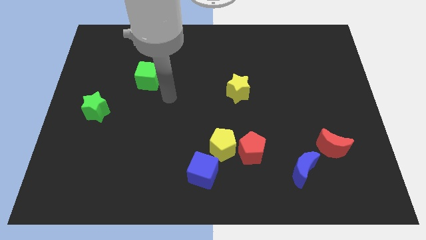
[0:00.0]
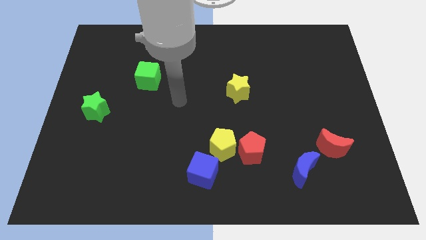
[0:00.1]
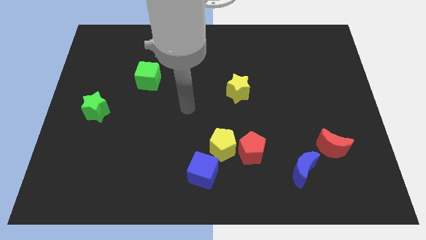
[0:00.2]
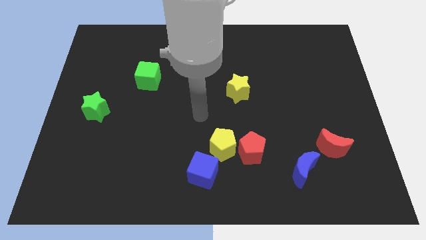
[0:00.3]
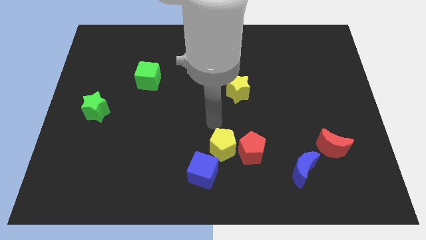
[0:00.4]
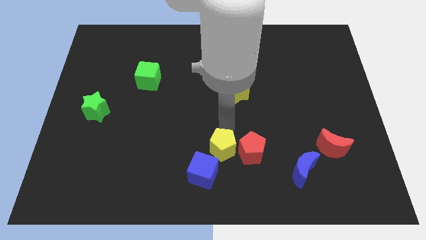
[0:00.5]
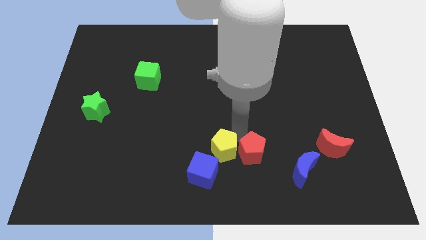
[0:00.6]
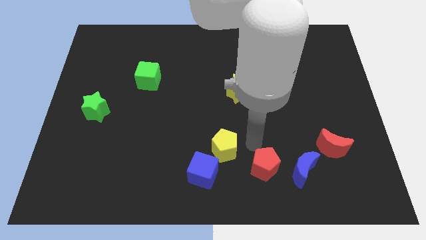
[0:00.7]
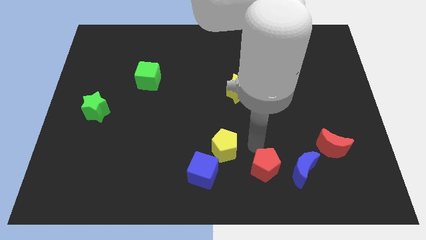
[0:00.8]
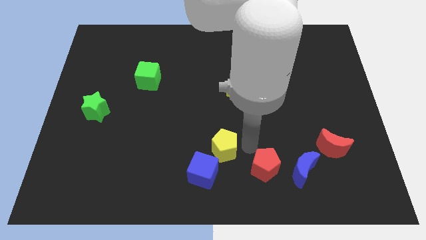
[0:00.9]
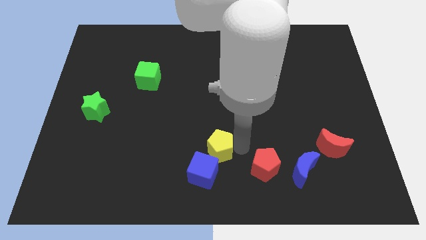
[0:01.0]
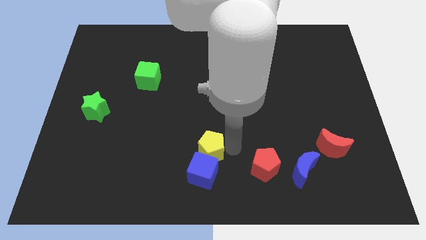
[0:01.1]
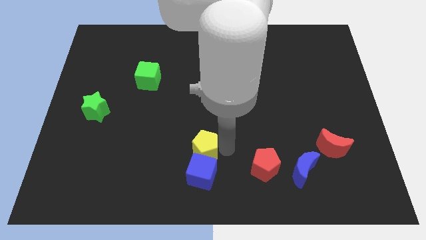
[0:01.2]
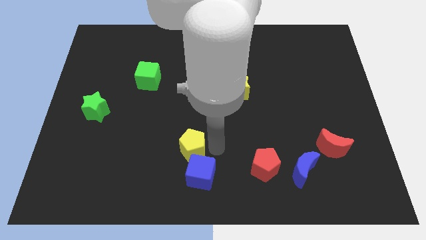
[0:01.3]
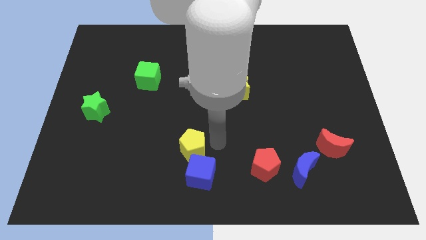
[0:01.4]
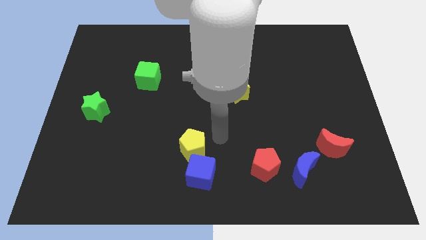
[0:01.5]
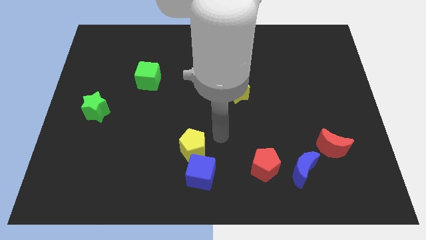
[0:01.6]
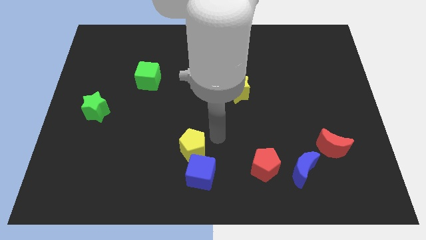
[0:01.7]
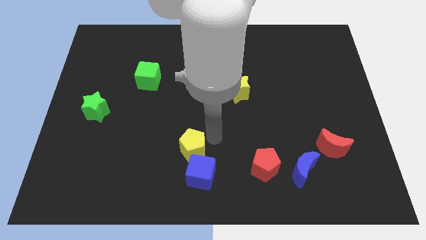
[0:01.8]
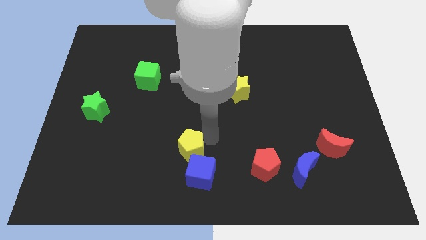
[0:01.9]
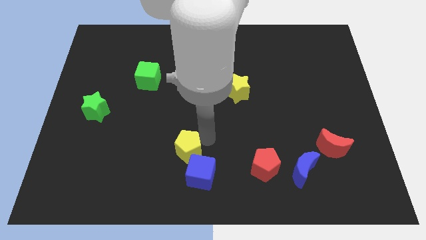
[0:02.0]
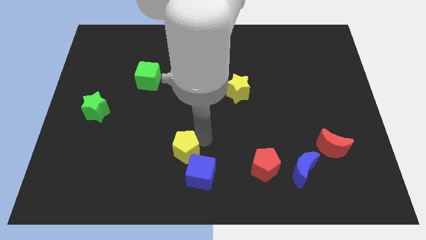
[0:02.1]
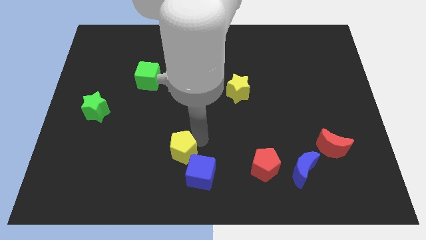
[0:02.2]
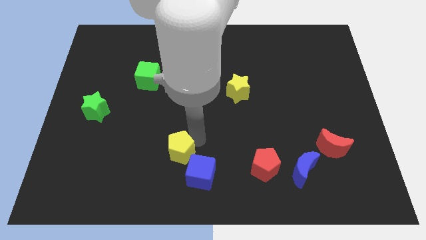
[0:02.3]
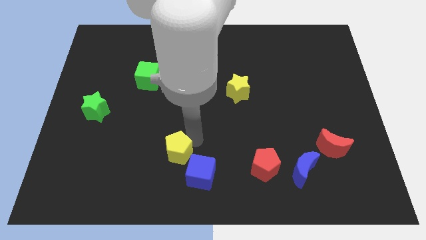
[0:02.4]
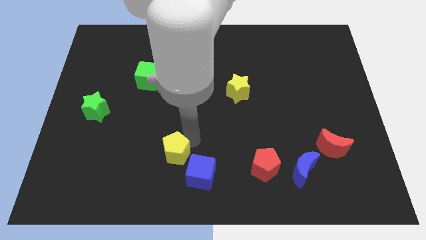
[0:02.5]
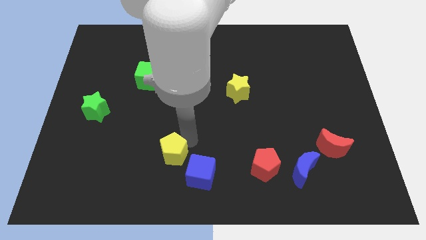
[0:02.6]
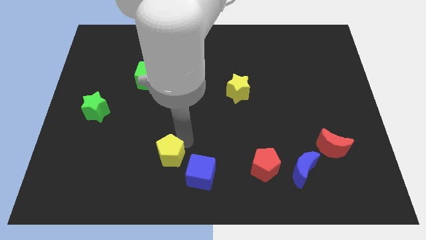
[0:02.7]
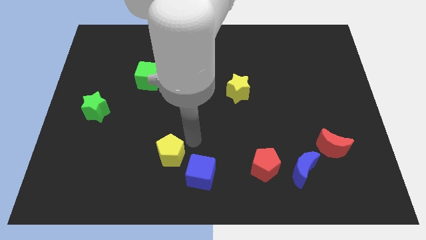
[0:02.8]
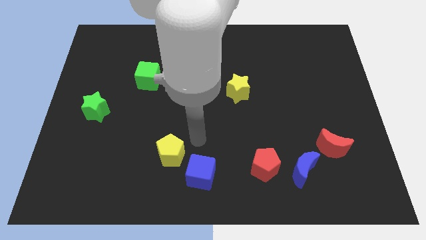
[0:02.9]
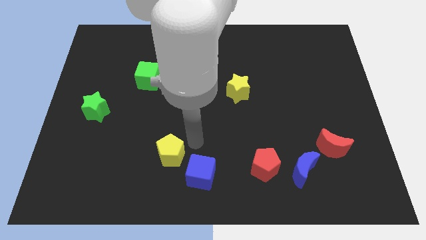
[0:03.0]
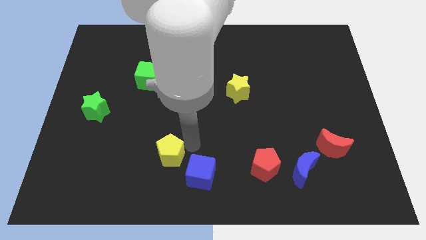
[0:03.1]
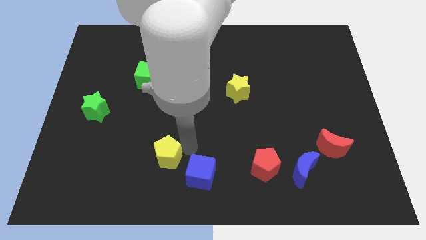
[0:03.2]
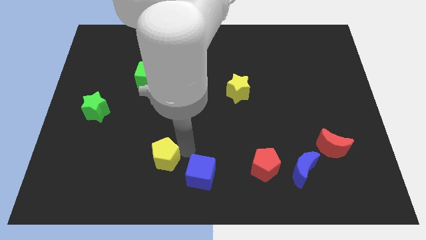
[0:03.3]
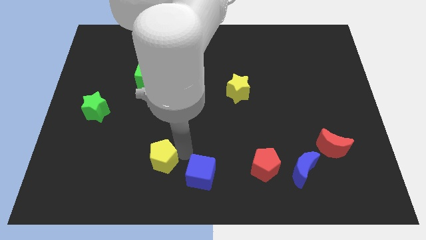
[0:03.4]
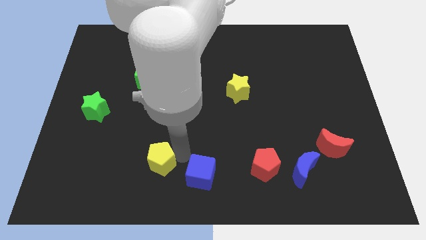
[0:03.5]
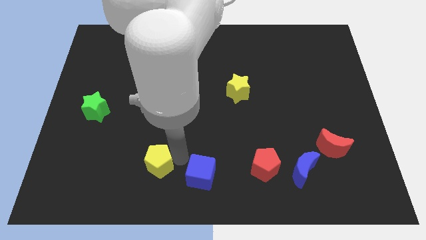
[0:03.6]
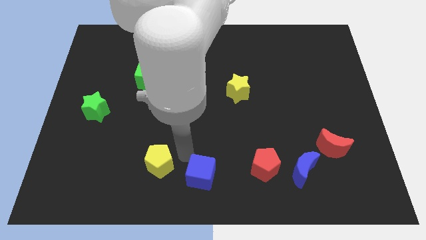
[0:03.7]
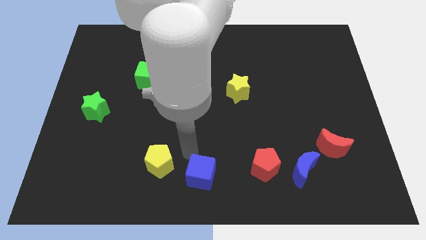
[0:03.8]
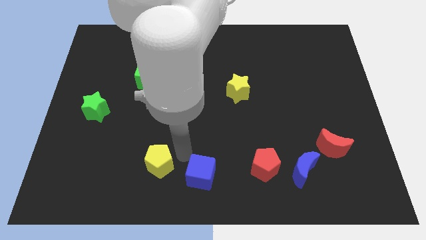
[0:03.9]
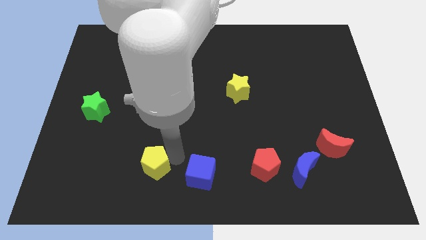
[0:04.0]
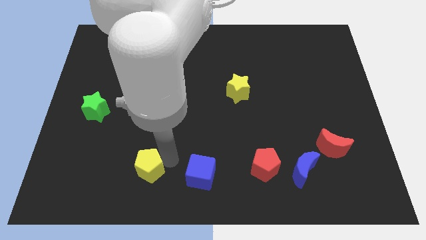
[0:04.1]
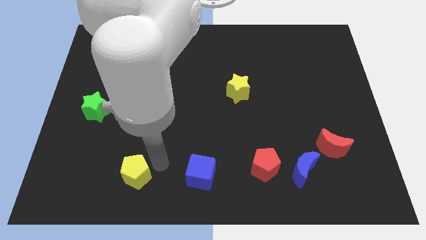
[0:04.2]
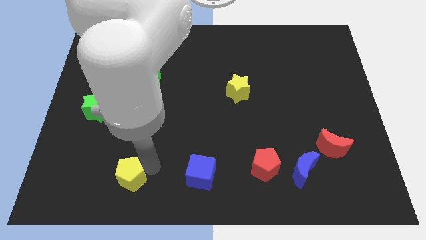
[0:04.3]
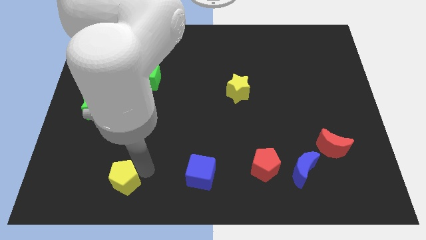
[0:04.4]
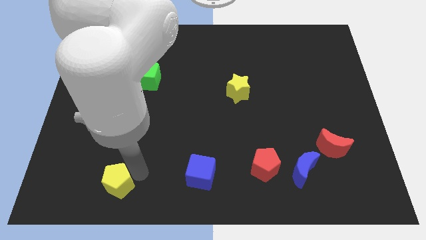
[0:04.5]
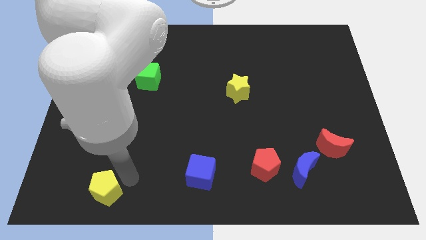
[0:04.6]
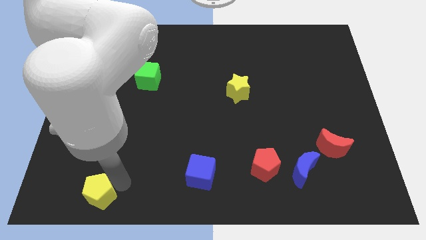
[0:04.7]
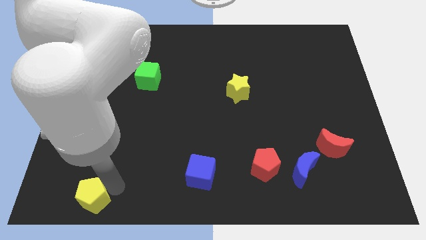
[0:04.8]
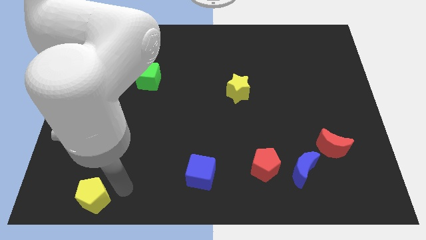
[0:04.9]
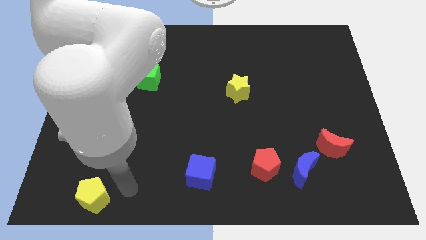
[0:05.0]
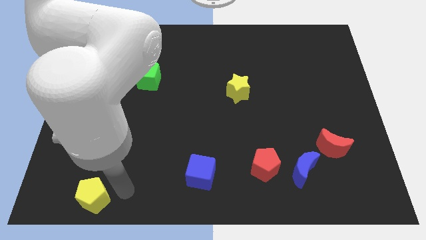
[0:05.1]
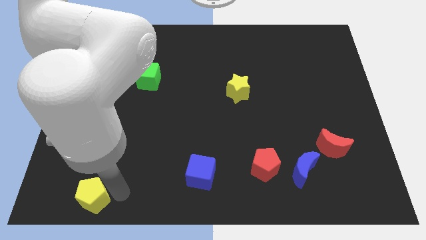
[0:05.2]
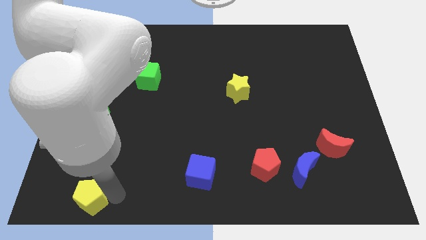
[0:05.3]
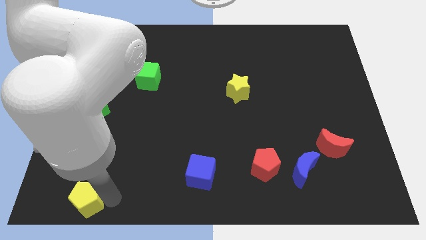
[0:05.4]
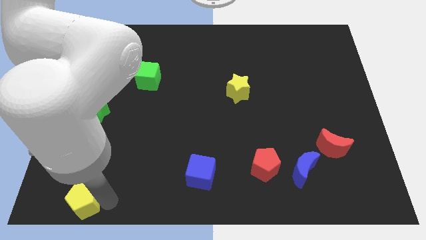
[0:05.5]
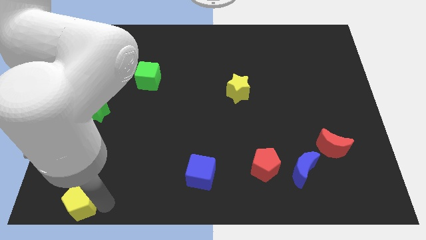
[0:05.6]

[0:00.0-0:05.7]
put the yellow pentagon to the bottom left corner

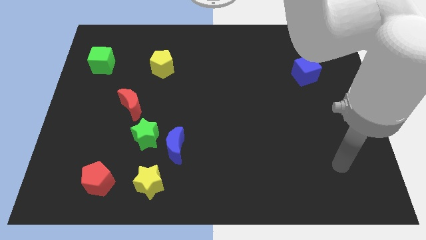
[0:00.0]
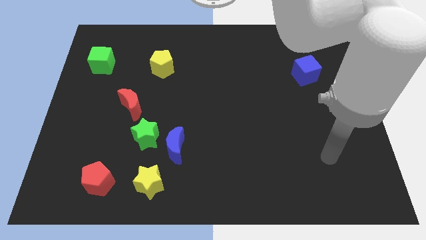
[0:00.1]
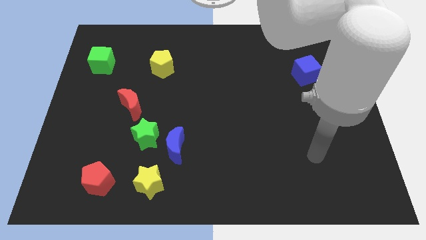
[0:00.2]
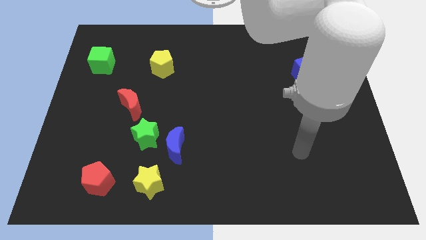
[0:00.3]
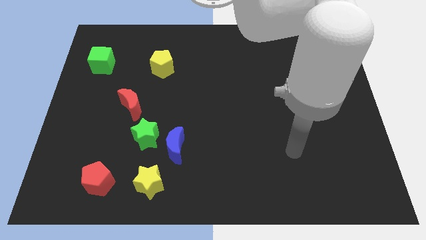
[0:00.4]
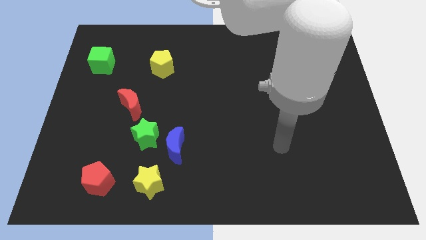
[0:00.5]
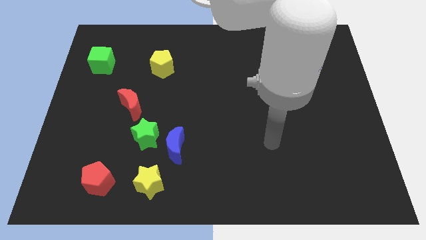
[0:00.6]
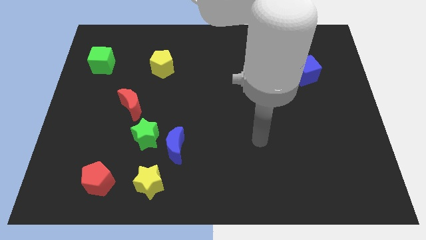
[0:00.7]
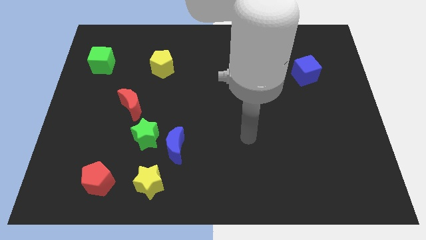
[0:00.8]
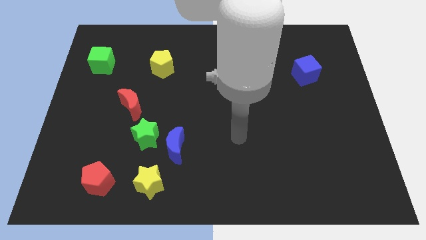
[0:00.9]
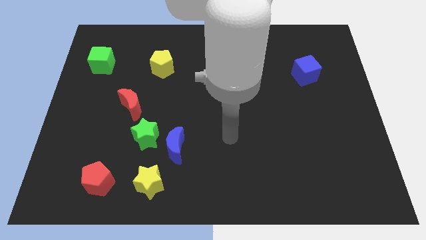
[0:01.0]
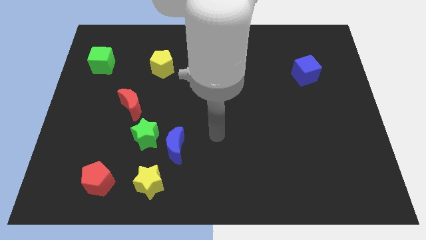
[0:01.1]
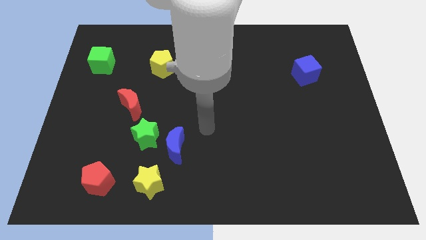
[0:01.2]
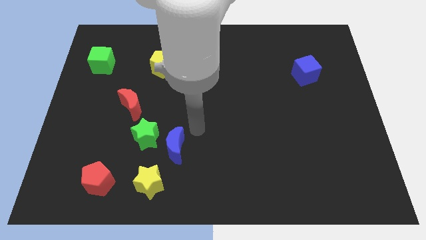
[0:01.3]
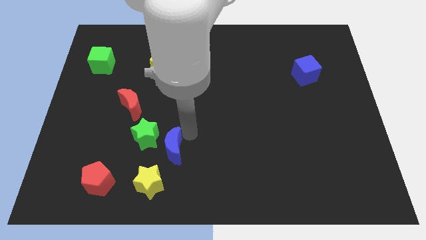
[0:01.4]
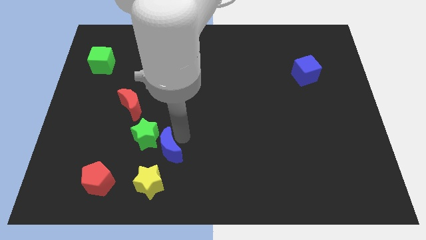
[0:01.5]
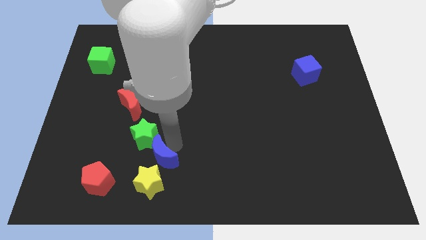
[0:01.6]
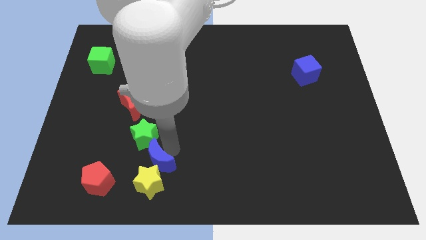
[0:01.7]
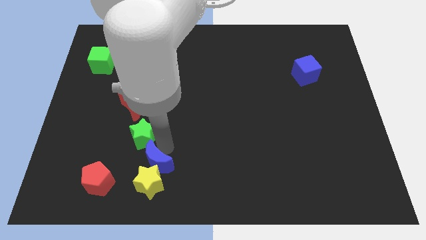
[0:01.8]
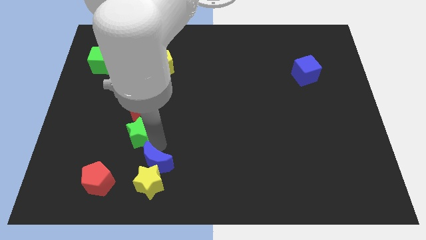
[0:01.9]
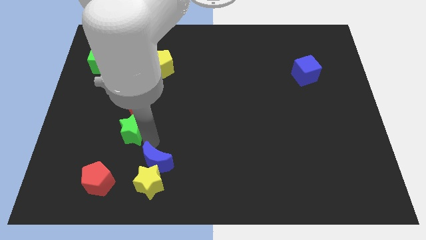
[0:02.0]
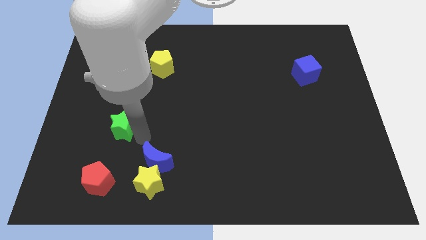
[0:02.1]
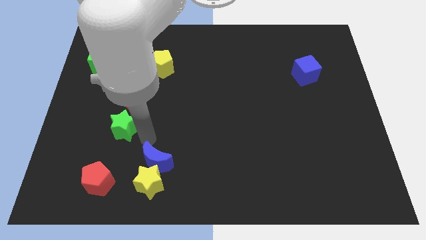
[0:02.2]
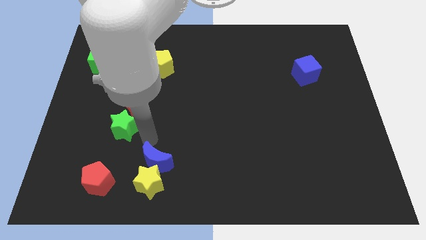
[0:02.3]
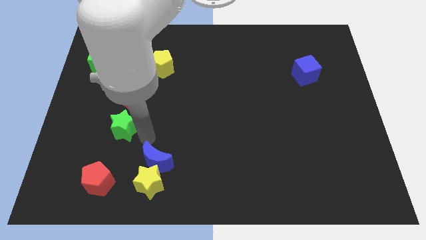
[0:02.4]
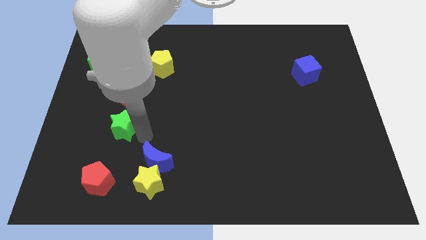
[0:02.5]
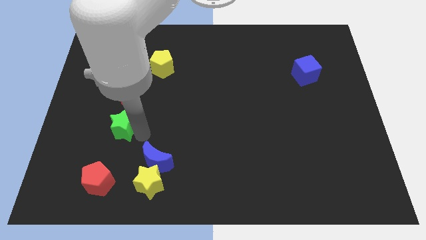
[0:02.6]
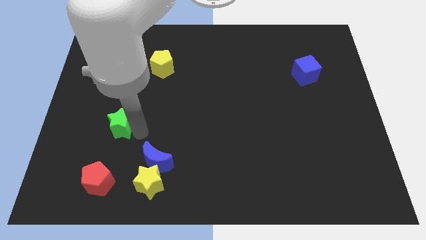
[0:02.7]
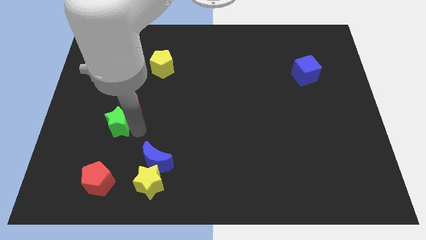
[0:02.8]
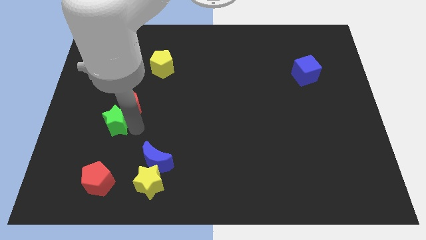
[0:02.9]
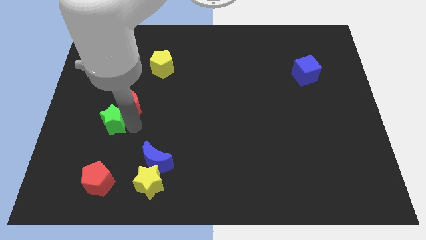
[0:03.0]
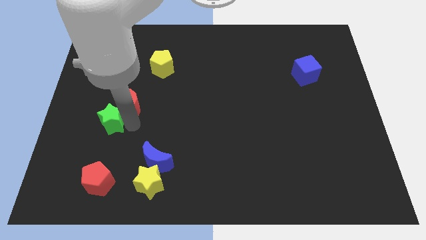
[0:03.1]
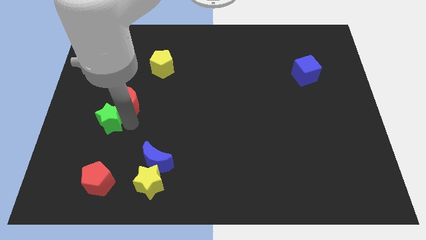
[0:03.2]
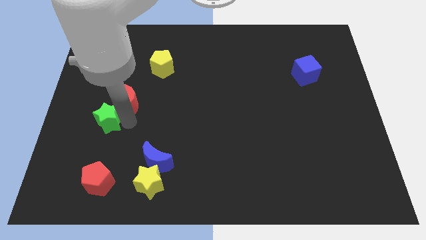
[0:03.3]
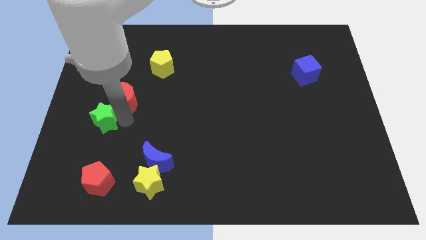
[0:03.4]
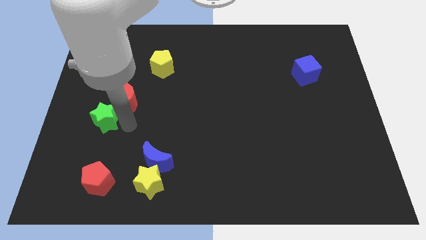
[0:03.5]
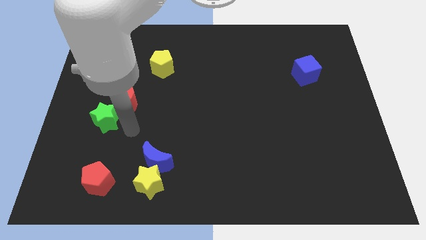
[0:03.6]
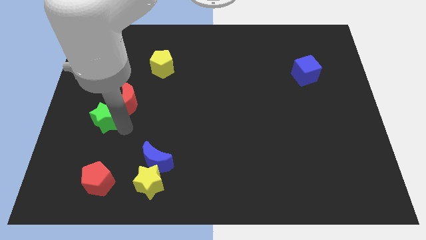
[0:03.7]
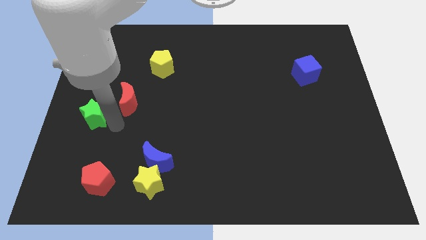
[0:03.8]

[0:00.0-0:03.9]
move the green star to the left side
